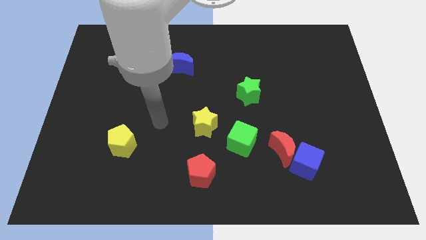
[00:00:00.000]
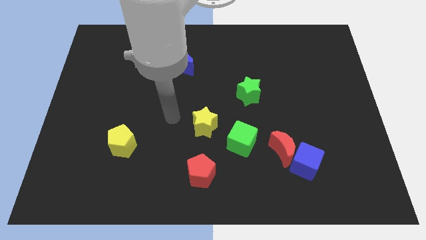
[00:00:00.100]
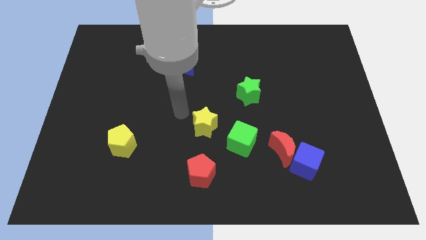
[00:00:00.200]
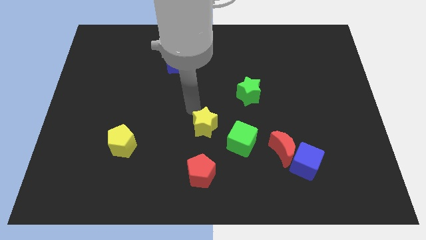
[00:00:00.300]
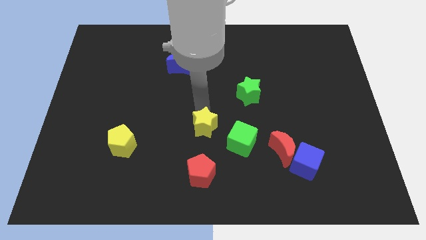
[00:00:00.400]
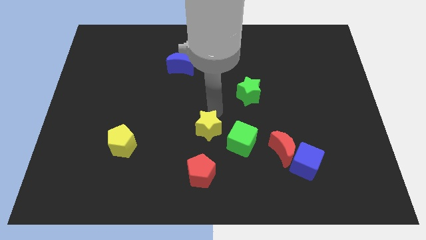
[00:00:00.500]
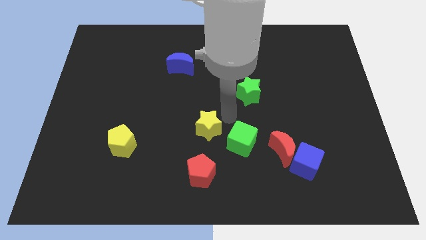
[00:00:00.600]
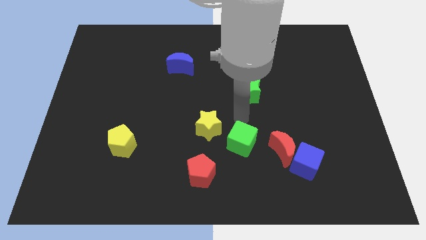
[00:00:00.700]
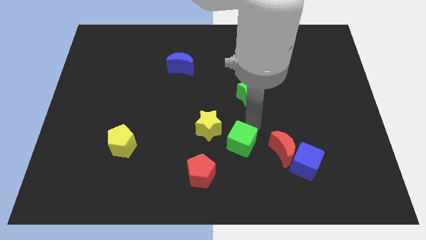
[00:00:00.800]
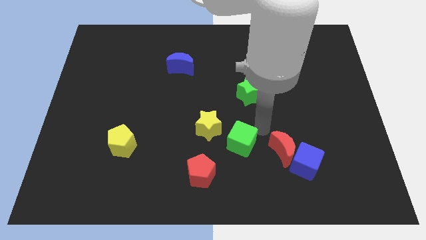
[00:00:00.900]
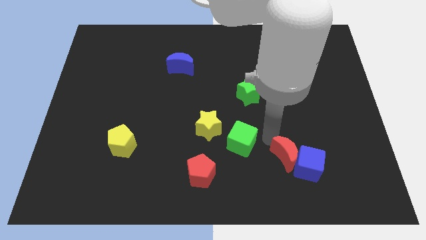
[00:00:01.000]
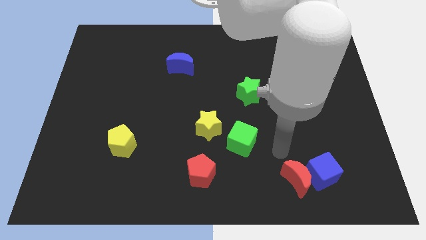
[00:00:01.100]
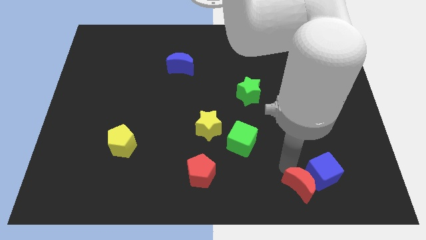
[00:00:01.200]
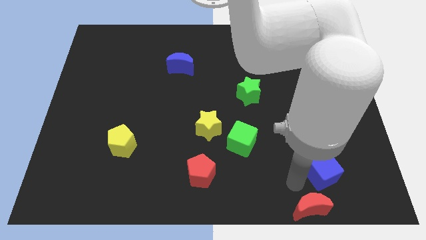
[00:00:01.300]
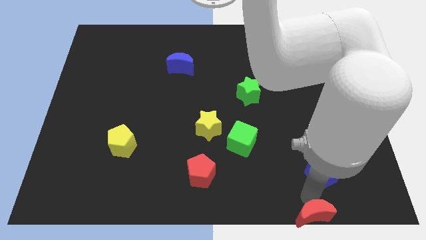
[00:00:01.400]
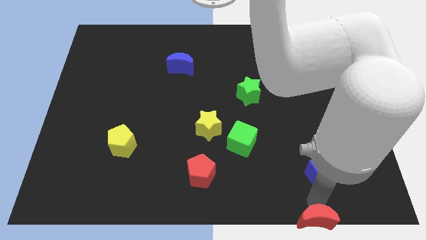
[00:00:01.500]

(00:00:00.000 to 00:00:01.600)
move the blue cube away from the red moon

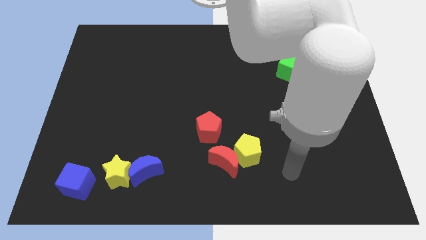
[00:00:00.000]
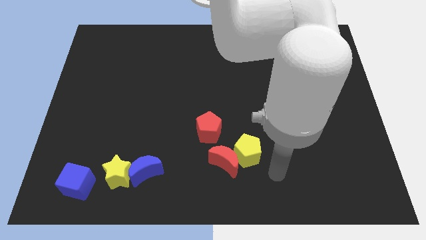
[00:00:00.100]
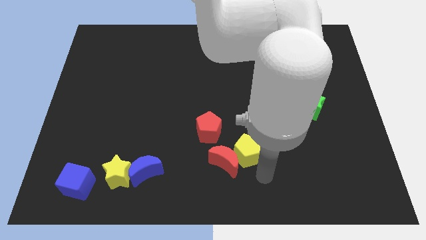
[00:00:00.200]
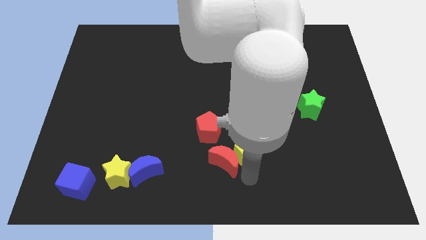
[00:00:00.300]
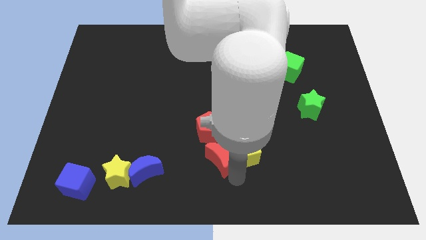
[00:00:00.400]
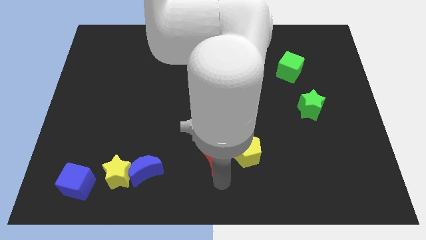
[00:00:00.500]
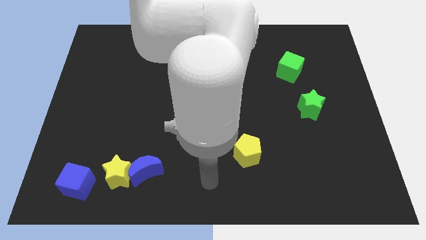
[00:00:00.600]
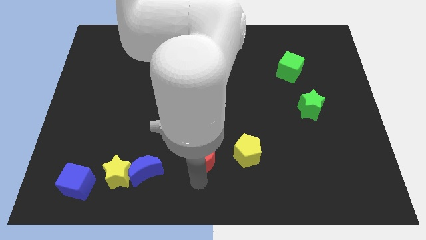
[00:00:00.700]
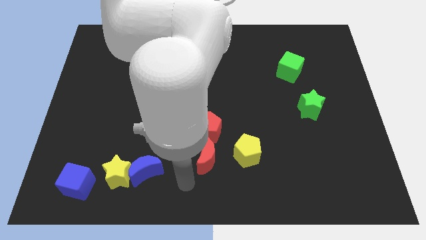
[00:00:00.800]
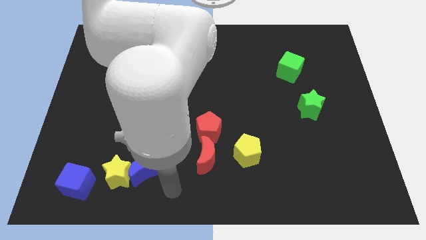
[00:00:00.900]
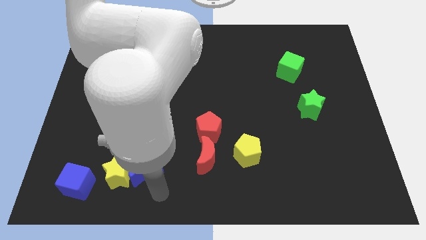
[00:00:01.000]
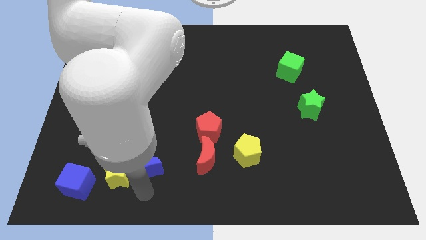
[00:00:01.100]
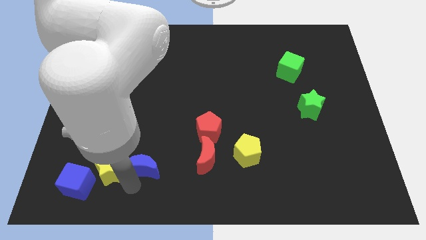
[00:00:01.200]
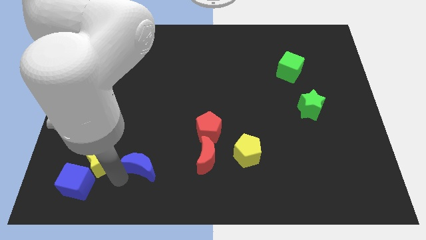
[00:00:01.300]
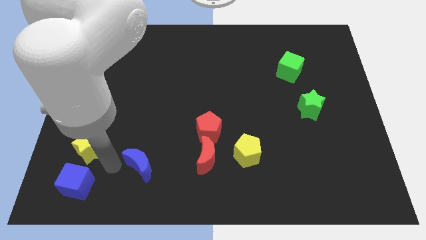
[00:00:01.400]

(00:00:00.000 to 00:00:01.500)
separate the blue moon from the yellow star

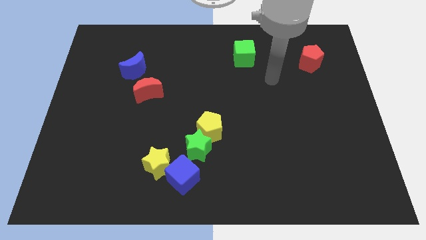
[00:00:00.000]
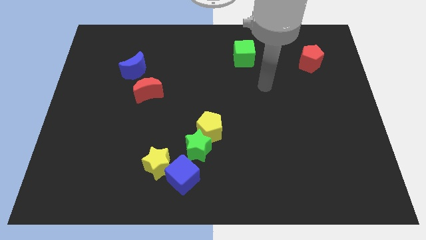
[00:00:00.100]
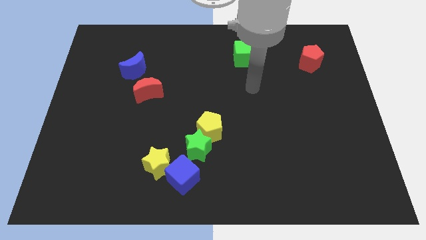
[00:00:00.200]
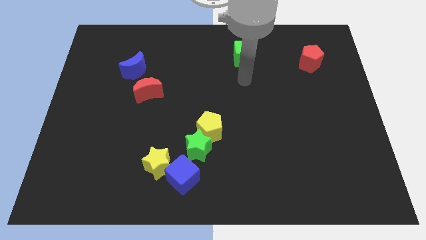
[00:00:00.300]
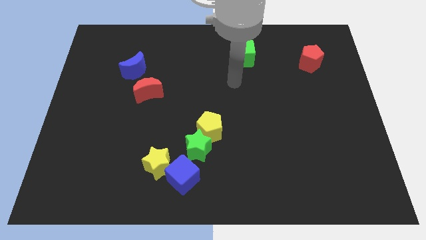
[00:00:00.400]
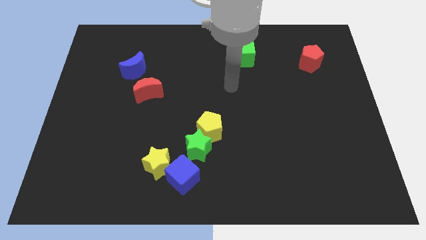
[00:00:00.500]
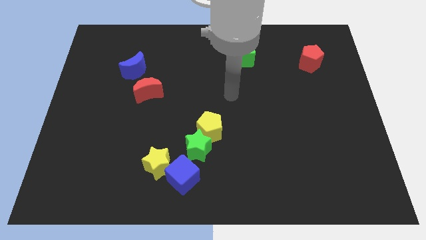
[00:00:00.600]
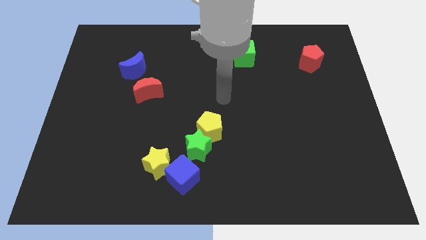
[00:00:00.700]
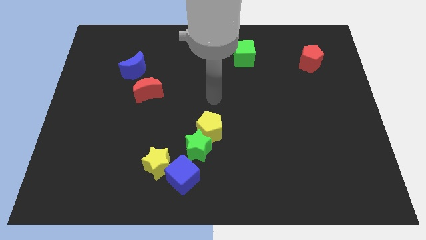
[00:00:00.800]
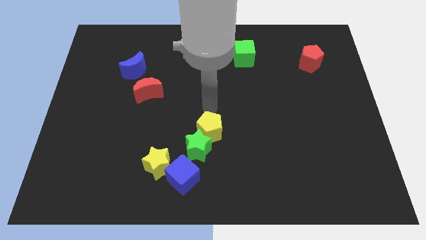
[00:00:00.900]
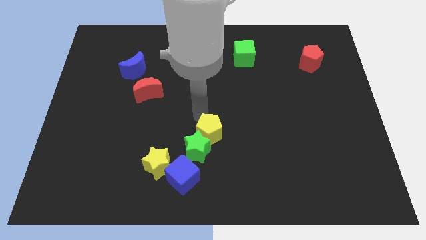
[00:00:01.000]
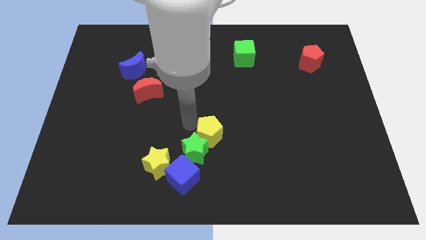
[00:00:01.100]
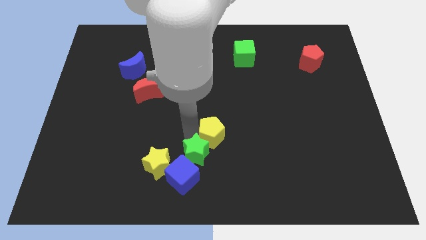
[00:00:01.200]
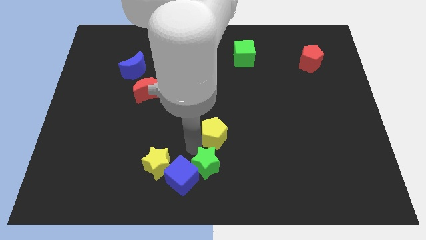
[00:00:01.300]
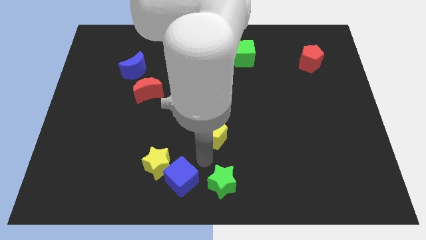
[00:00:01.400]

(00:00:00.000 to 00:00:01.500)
move the yellow pentagon away from the green star

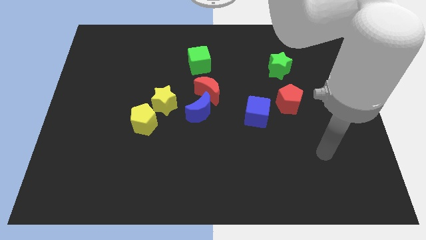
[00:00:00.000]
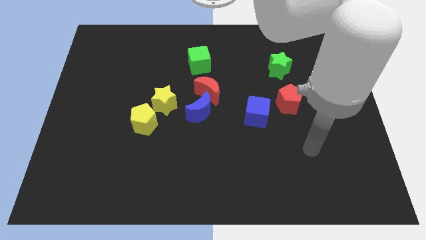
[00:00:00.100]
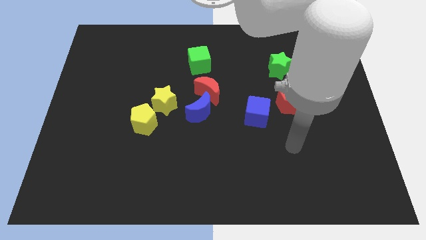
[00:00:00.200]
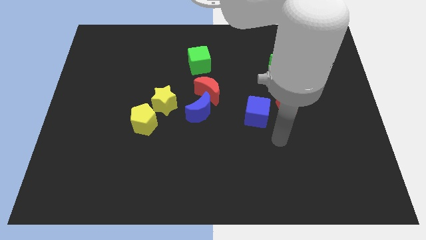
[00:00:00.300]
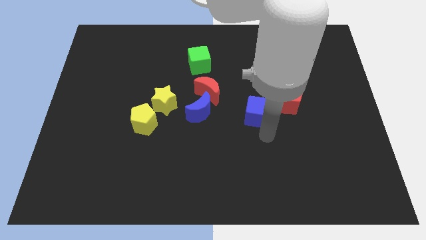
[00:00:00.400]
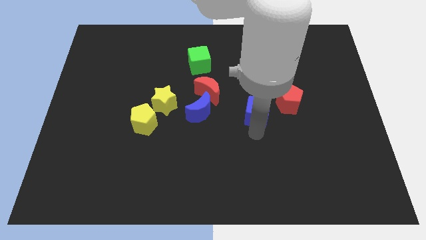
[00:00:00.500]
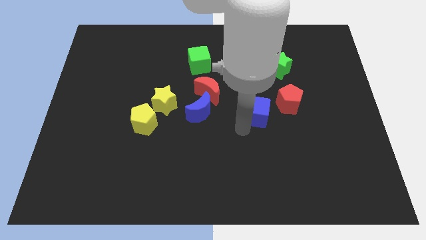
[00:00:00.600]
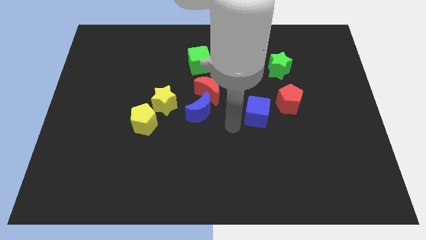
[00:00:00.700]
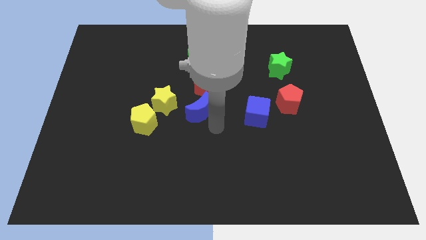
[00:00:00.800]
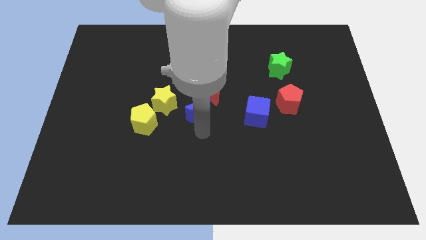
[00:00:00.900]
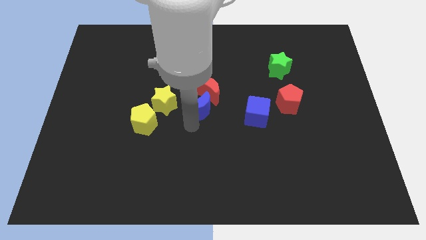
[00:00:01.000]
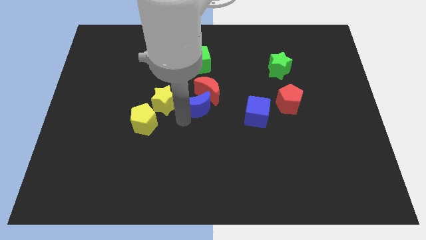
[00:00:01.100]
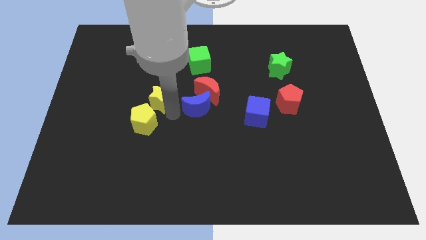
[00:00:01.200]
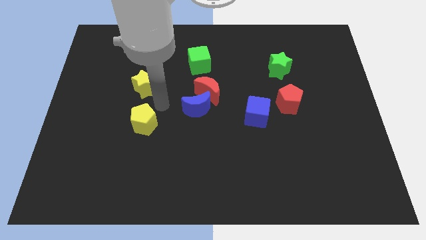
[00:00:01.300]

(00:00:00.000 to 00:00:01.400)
pull the yellow pentagon apart from the yellow star

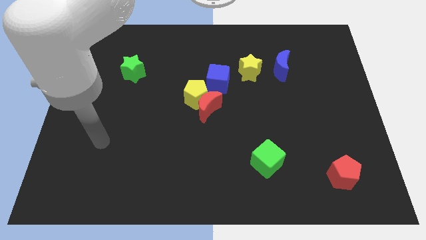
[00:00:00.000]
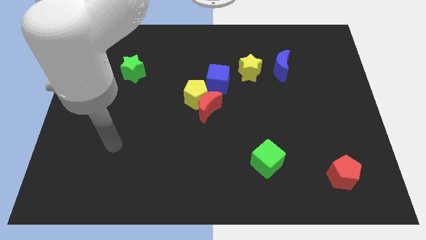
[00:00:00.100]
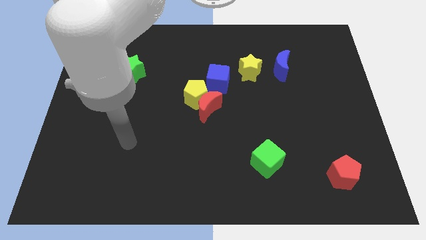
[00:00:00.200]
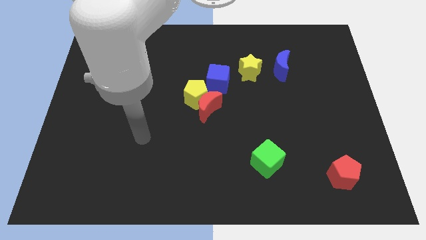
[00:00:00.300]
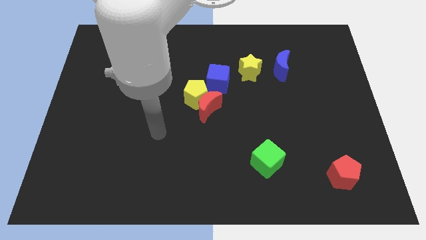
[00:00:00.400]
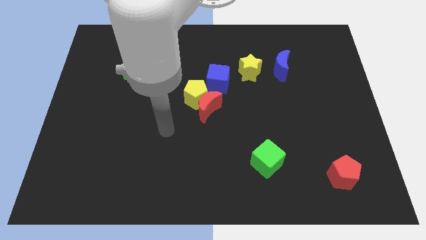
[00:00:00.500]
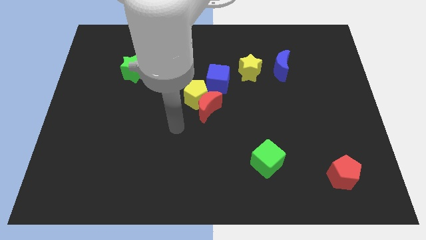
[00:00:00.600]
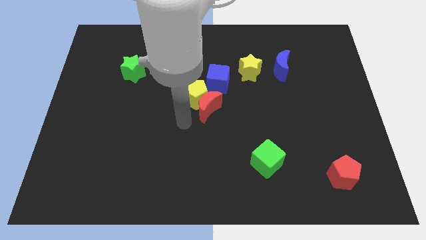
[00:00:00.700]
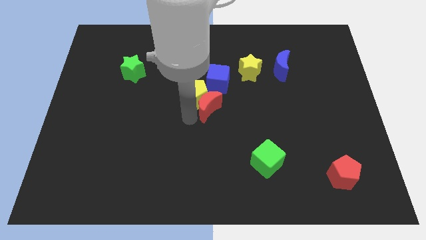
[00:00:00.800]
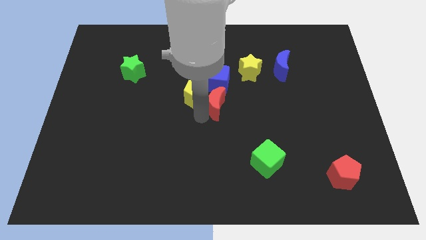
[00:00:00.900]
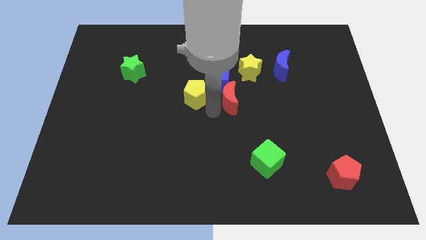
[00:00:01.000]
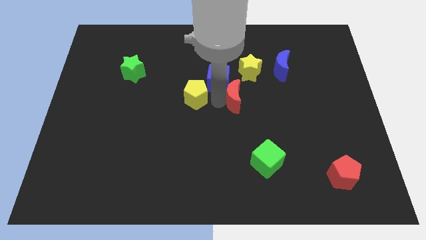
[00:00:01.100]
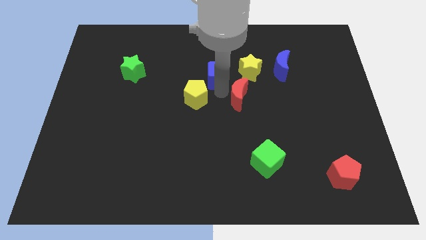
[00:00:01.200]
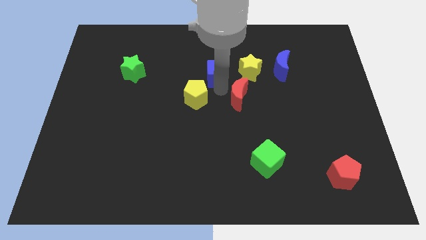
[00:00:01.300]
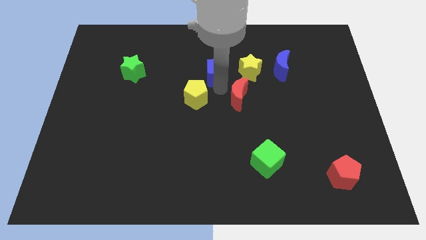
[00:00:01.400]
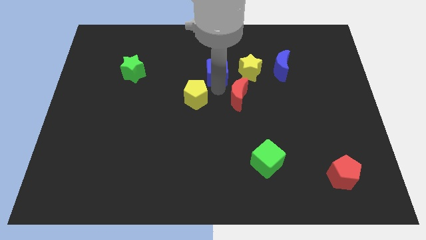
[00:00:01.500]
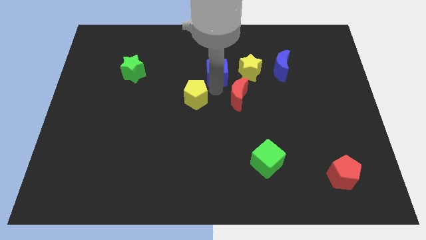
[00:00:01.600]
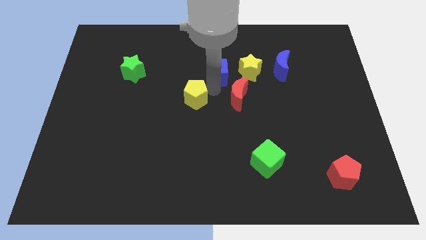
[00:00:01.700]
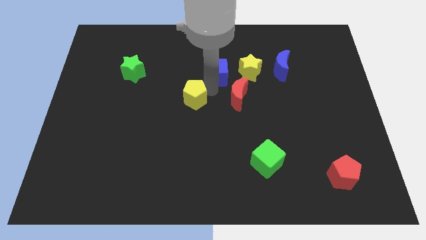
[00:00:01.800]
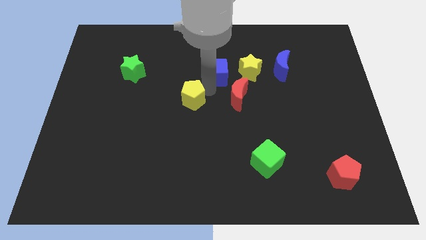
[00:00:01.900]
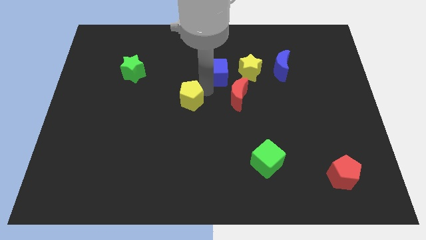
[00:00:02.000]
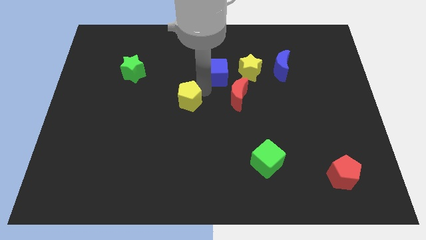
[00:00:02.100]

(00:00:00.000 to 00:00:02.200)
move the yellow pentagon away from the red moon and blue cube

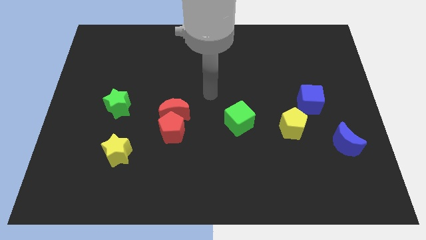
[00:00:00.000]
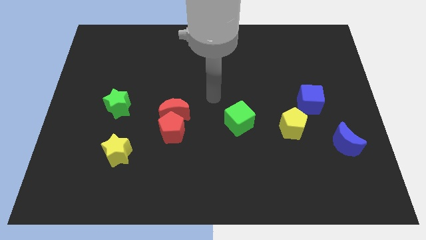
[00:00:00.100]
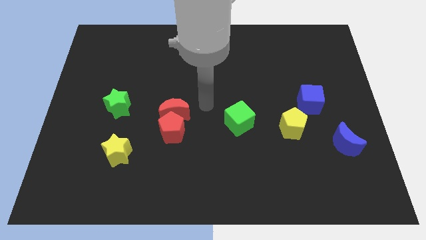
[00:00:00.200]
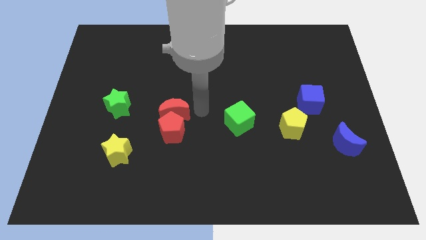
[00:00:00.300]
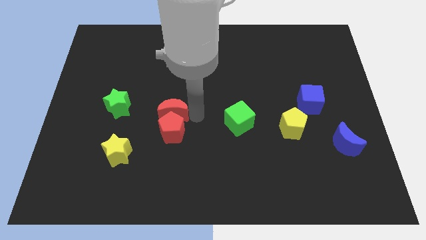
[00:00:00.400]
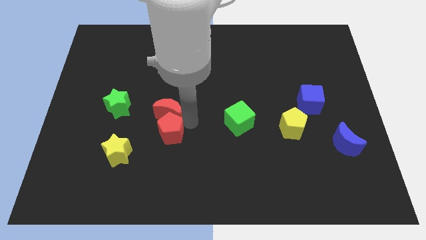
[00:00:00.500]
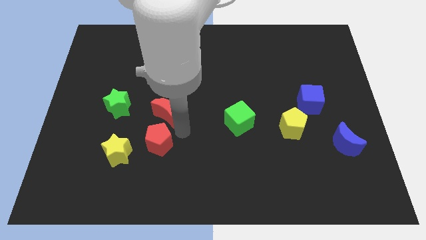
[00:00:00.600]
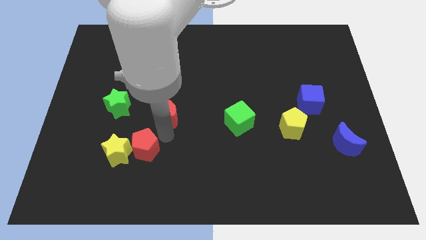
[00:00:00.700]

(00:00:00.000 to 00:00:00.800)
separate the red moon from the red pentagon

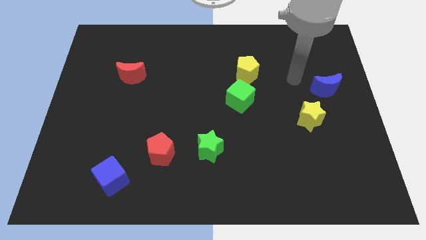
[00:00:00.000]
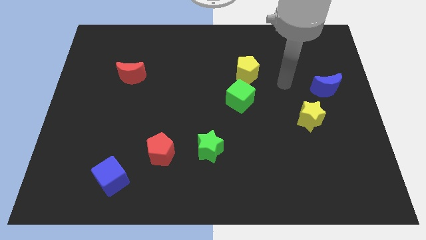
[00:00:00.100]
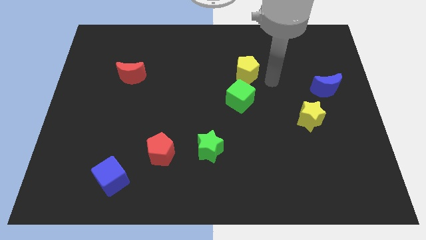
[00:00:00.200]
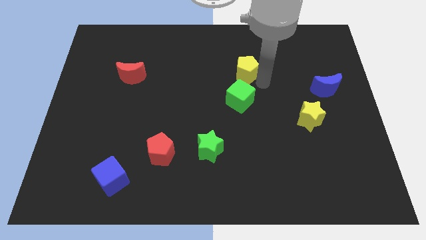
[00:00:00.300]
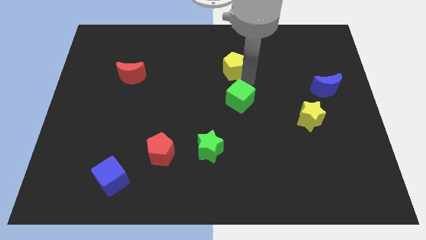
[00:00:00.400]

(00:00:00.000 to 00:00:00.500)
move the green cube away from the yellow pentagon
